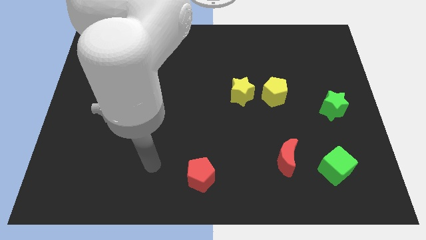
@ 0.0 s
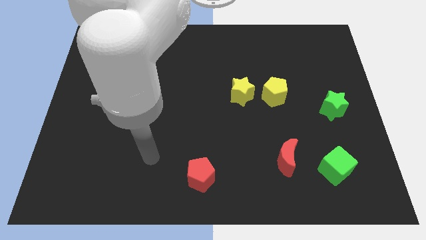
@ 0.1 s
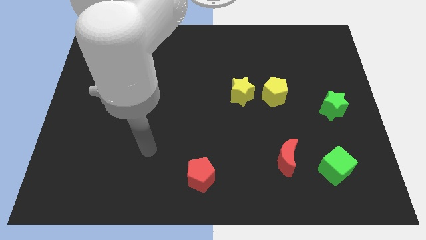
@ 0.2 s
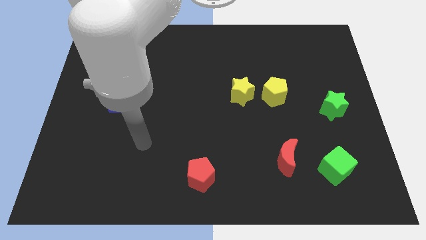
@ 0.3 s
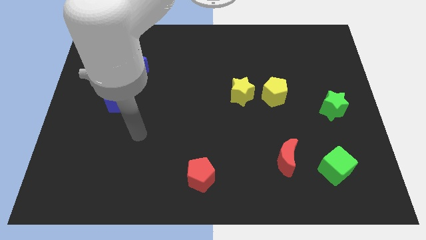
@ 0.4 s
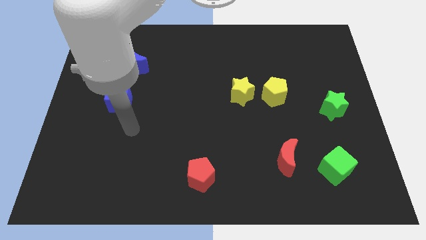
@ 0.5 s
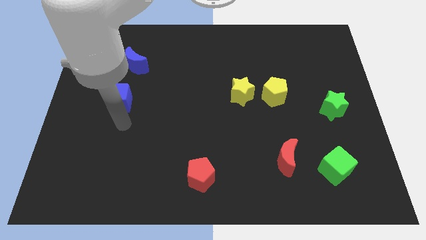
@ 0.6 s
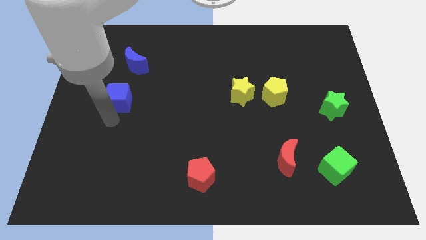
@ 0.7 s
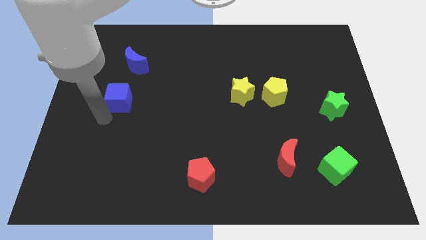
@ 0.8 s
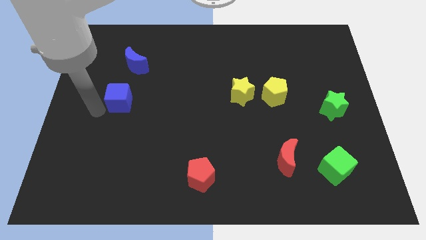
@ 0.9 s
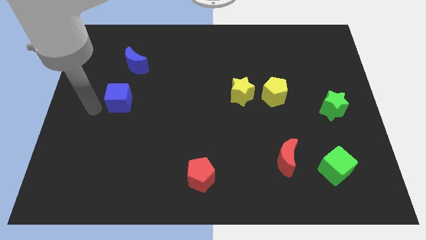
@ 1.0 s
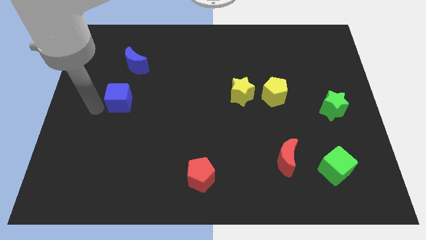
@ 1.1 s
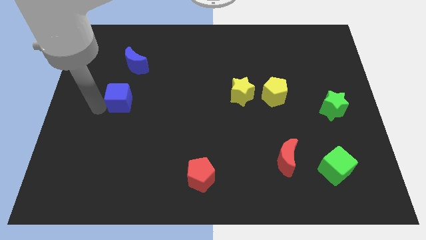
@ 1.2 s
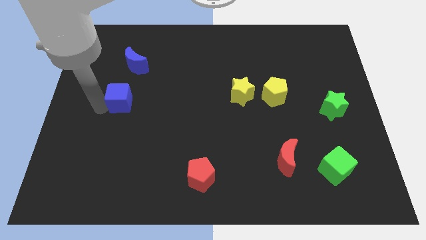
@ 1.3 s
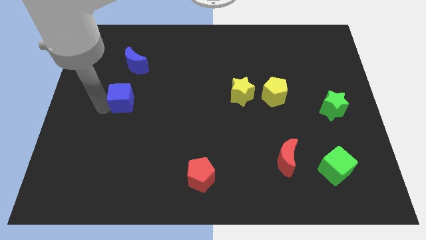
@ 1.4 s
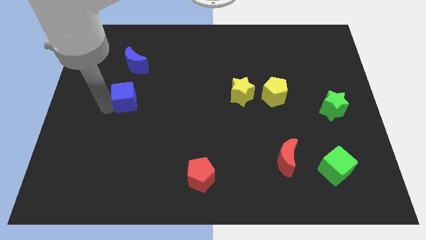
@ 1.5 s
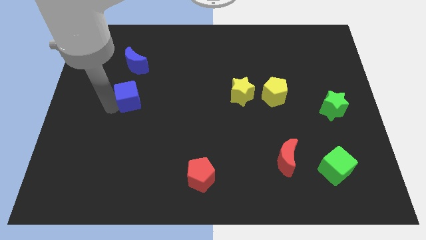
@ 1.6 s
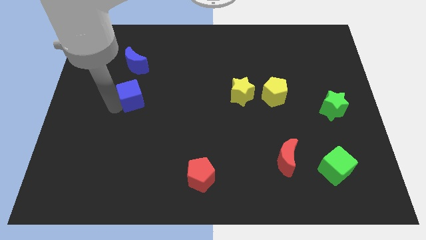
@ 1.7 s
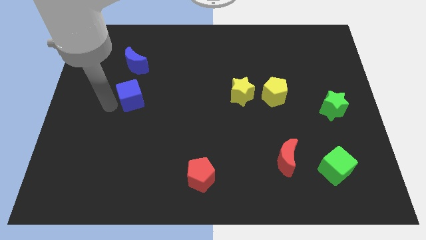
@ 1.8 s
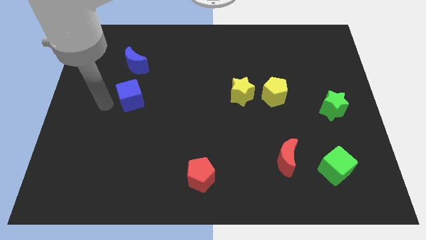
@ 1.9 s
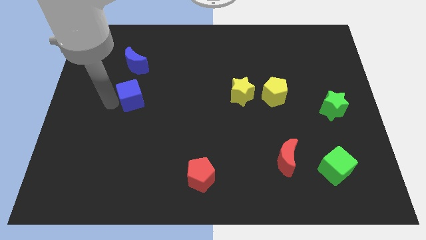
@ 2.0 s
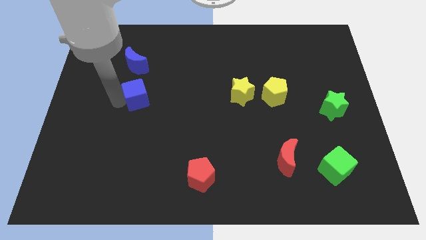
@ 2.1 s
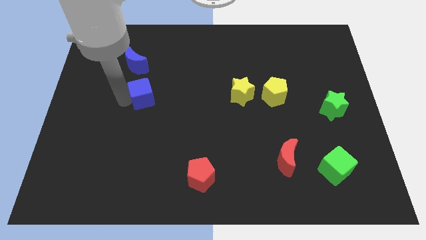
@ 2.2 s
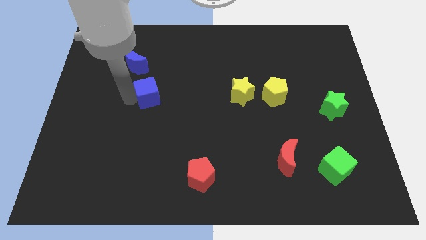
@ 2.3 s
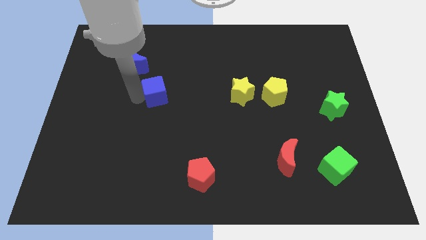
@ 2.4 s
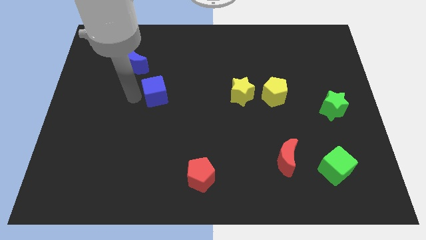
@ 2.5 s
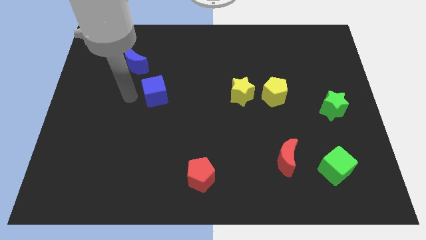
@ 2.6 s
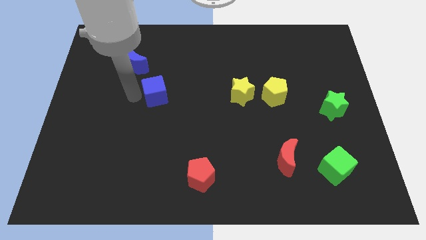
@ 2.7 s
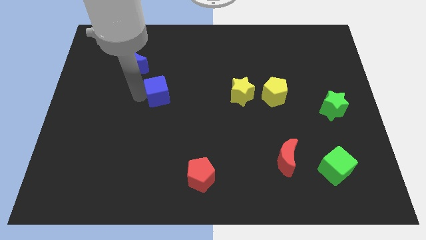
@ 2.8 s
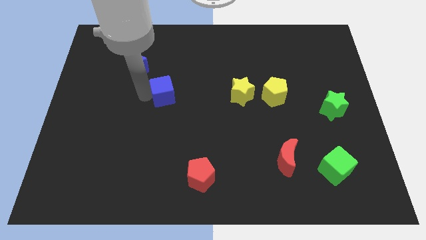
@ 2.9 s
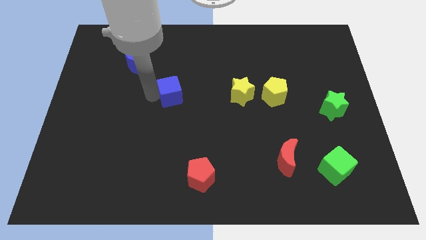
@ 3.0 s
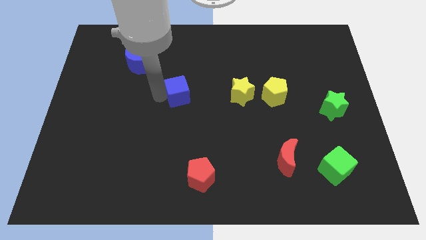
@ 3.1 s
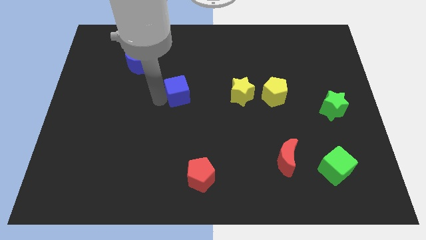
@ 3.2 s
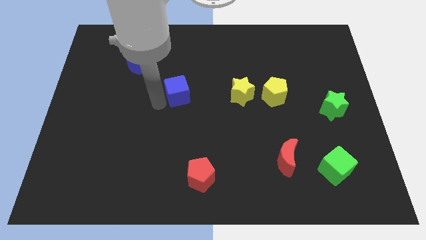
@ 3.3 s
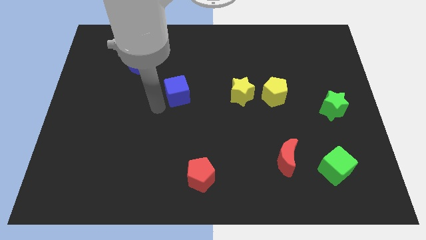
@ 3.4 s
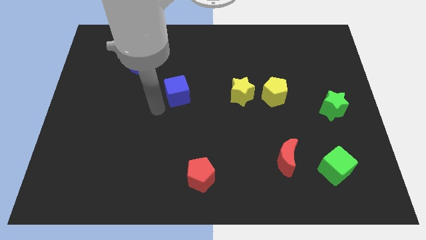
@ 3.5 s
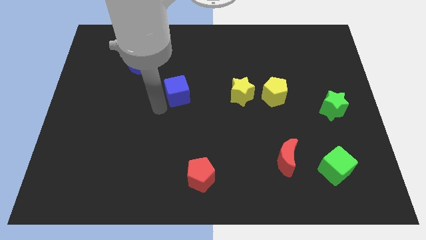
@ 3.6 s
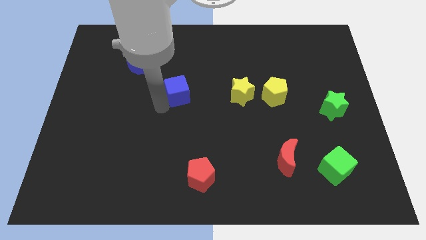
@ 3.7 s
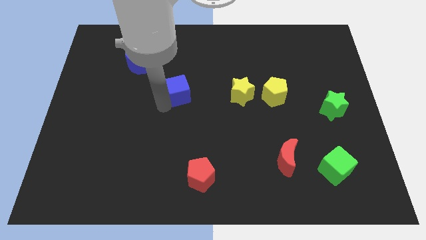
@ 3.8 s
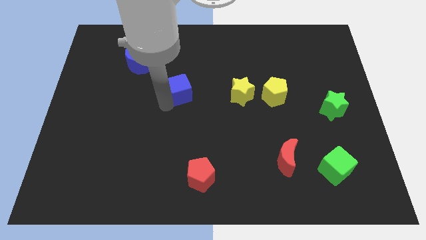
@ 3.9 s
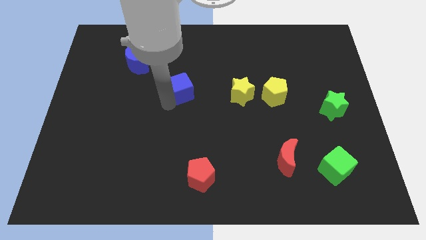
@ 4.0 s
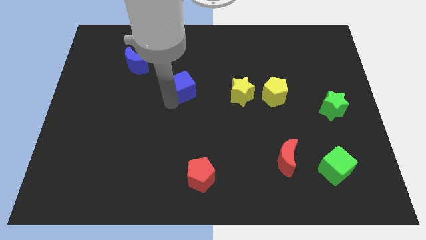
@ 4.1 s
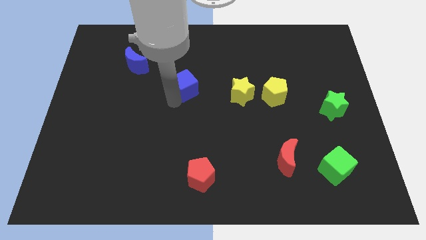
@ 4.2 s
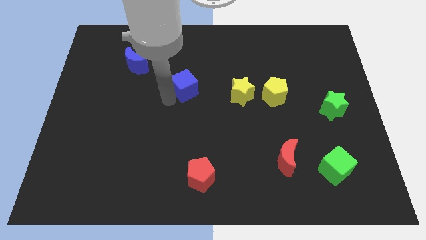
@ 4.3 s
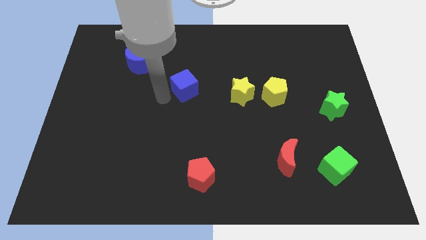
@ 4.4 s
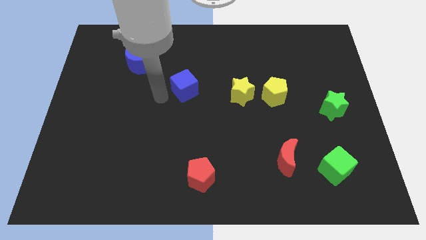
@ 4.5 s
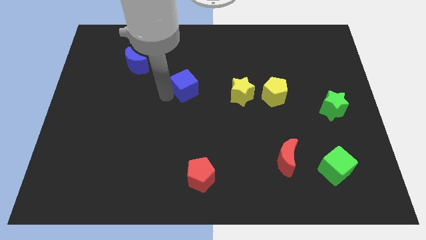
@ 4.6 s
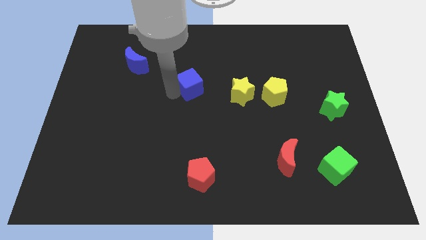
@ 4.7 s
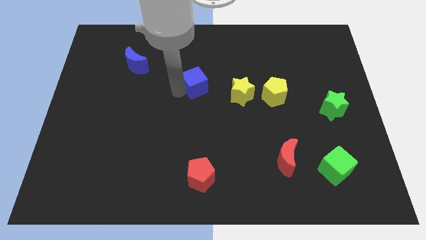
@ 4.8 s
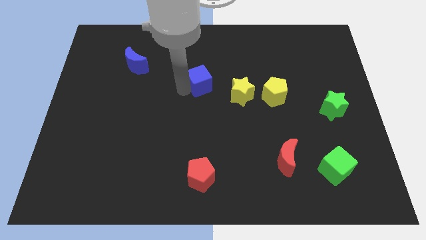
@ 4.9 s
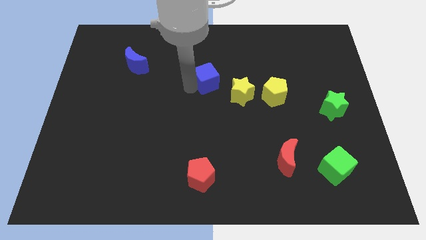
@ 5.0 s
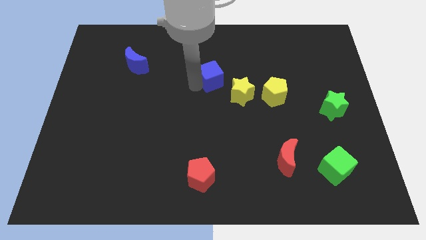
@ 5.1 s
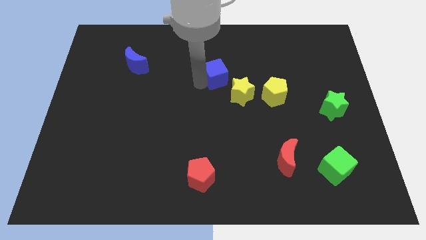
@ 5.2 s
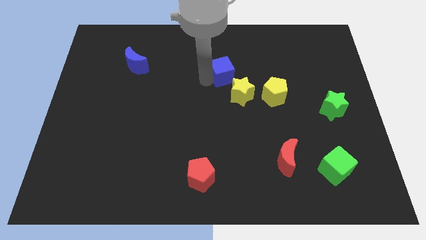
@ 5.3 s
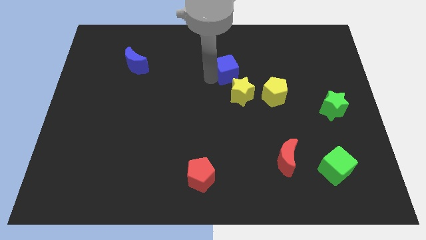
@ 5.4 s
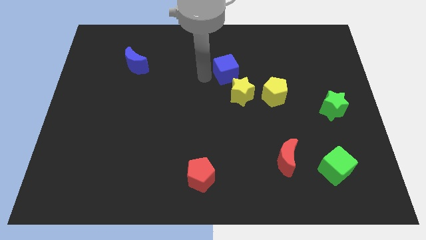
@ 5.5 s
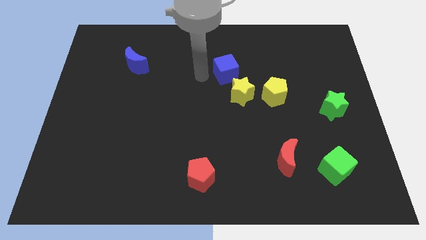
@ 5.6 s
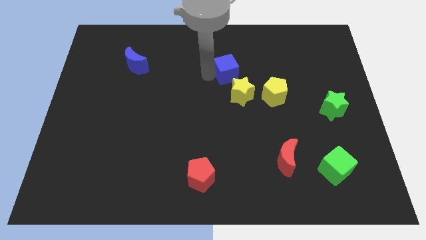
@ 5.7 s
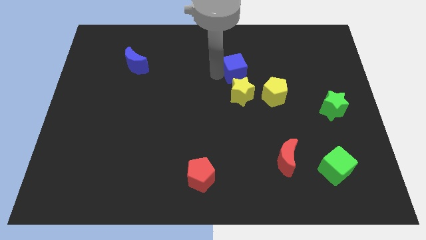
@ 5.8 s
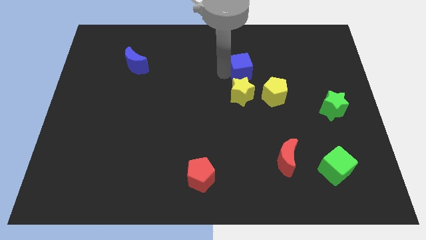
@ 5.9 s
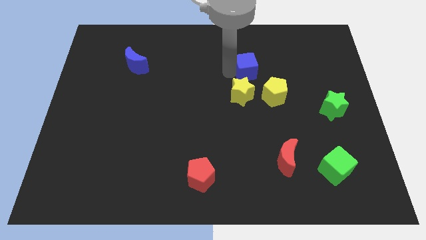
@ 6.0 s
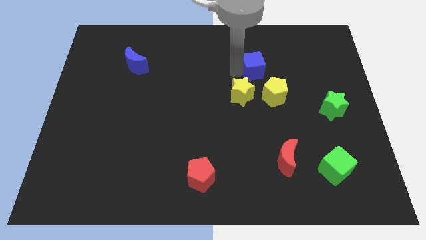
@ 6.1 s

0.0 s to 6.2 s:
push the blue cube to the top side of the yellow pentagon

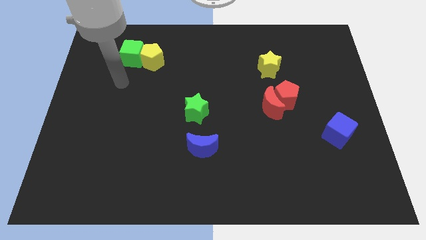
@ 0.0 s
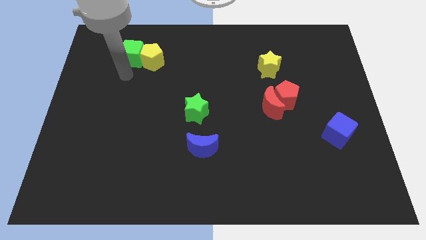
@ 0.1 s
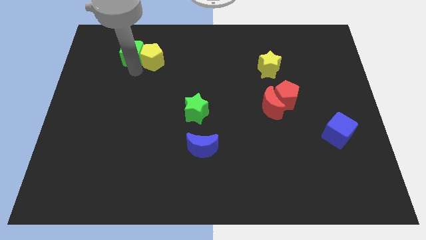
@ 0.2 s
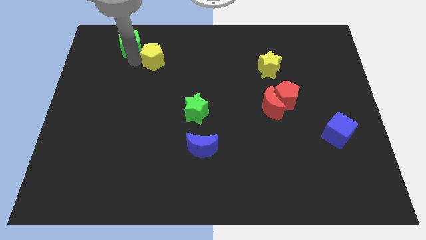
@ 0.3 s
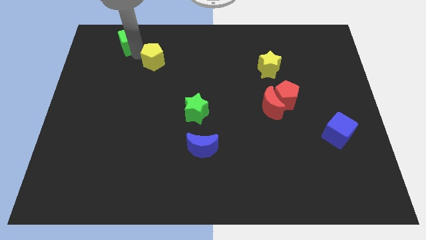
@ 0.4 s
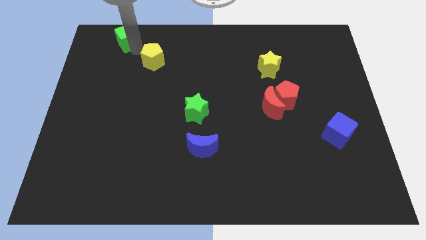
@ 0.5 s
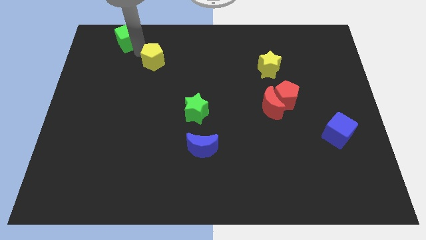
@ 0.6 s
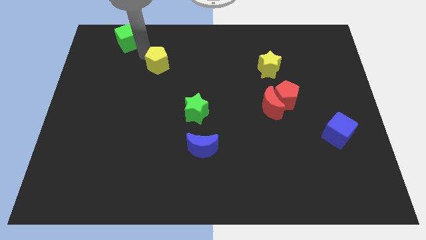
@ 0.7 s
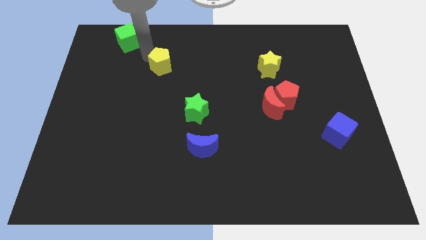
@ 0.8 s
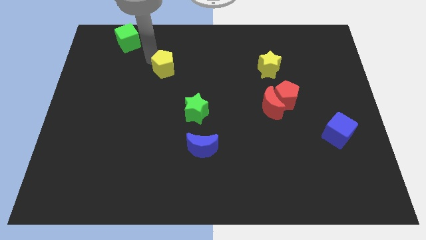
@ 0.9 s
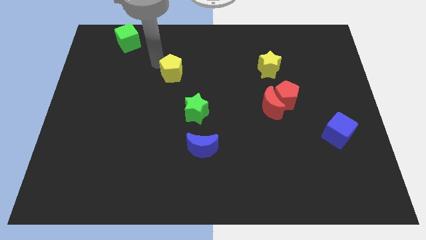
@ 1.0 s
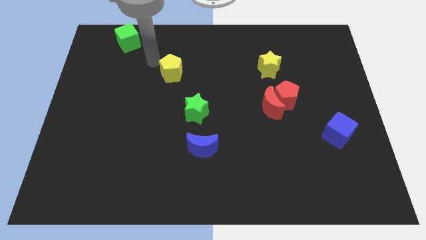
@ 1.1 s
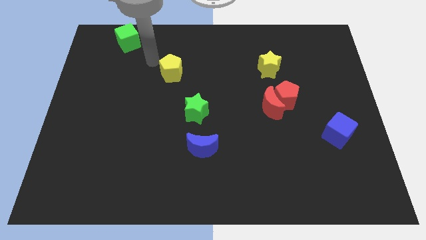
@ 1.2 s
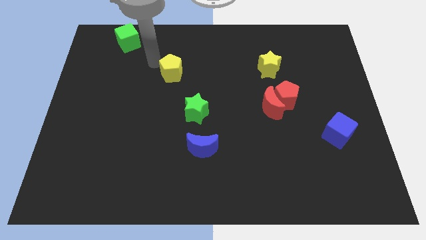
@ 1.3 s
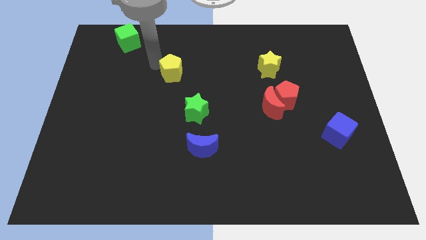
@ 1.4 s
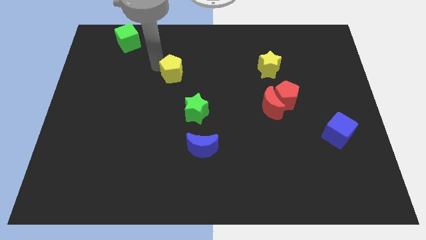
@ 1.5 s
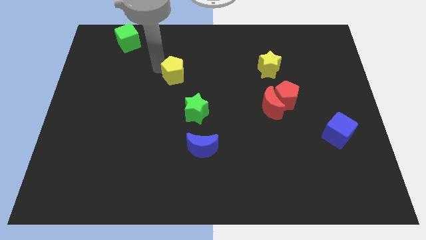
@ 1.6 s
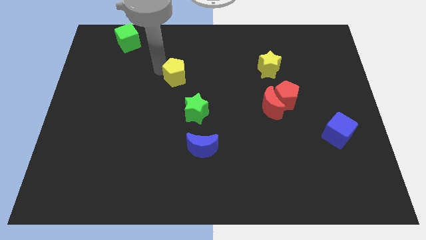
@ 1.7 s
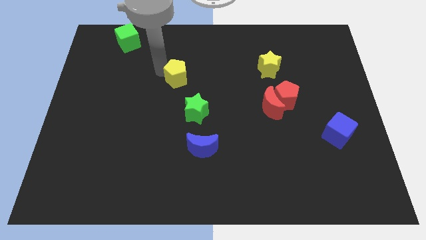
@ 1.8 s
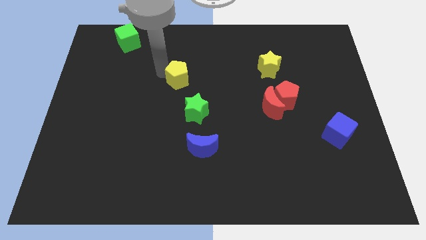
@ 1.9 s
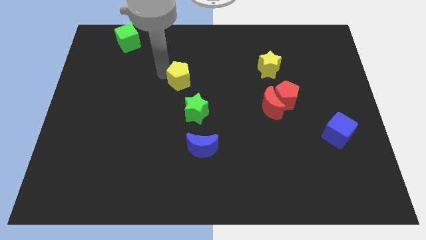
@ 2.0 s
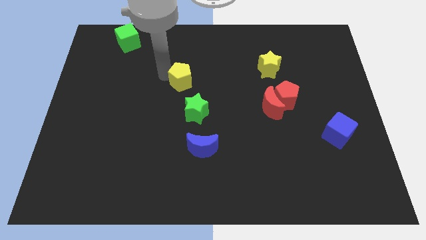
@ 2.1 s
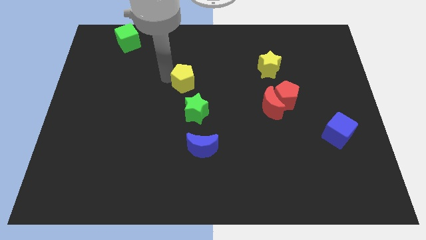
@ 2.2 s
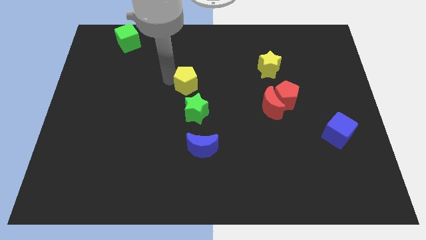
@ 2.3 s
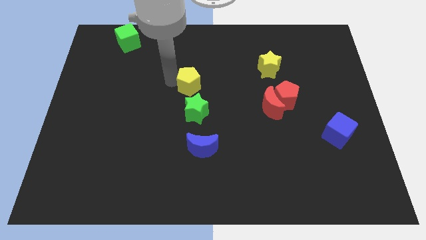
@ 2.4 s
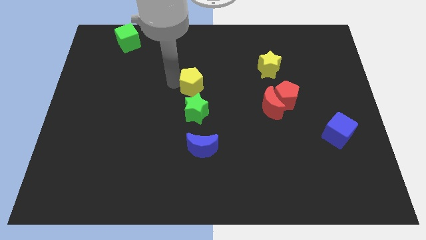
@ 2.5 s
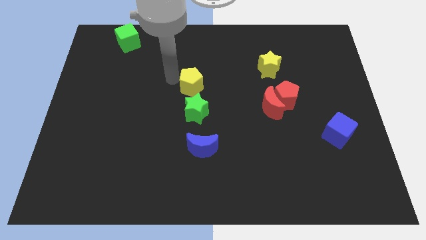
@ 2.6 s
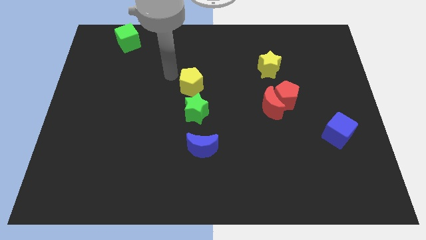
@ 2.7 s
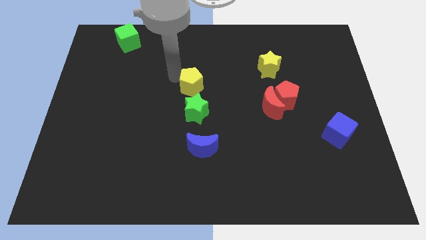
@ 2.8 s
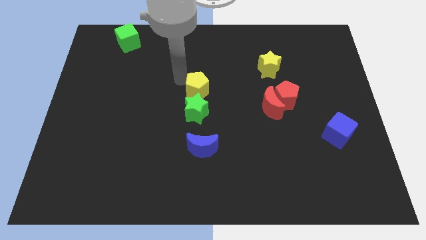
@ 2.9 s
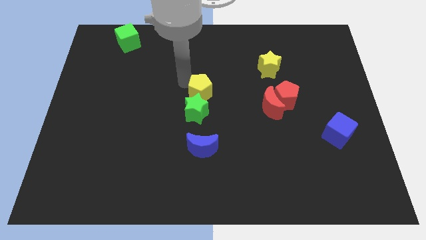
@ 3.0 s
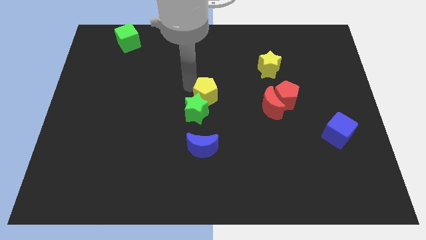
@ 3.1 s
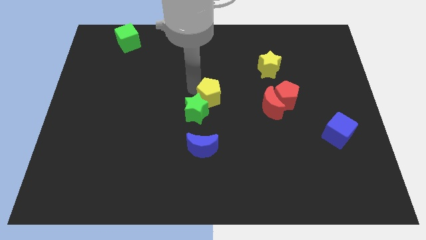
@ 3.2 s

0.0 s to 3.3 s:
put the yellow pentagon right of the green star
